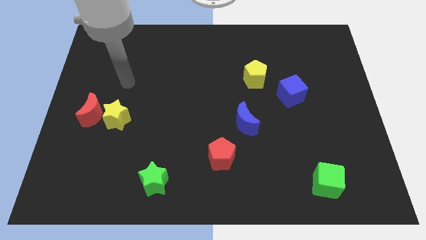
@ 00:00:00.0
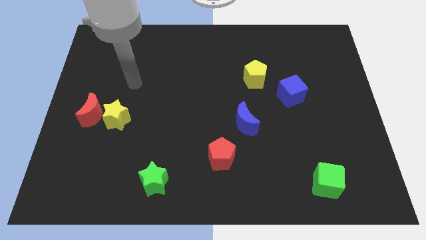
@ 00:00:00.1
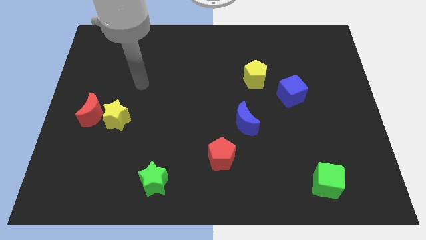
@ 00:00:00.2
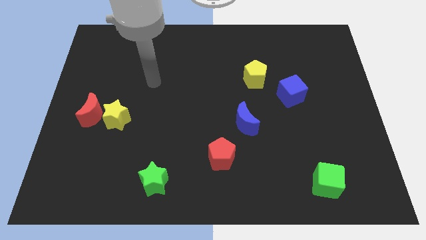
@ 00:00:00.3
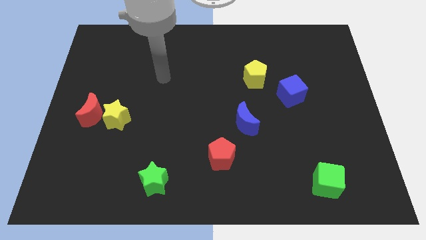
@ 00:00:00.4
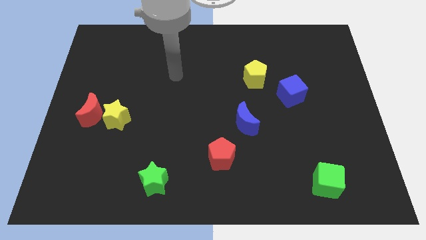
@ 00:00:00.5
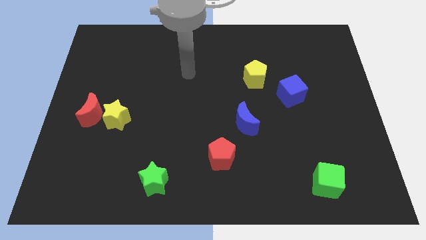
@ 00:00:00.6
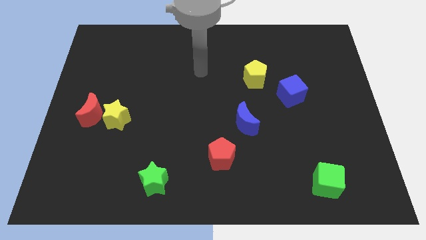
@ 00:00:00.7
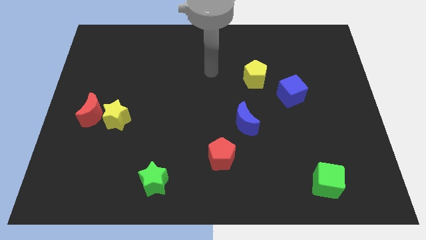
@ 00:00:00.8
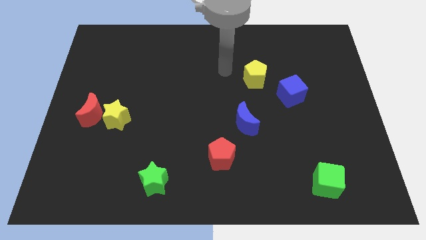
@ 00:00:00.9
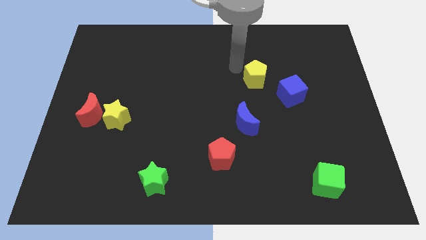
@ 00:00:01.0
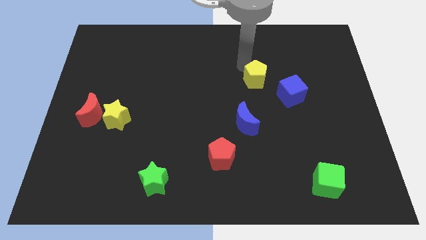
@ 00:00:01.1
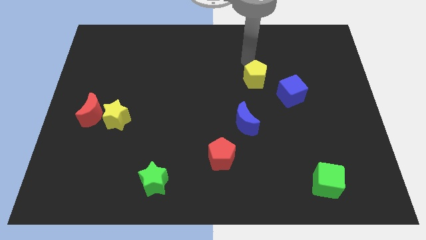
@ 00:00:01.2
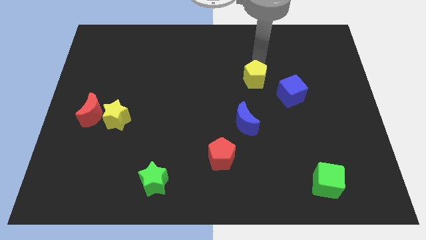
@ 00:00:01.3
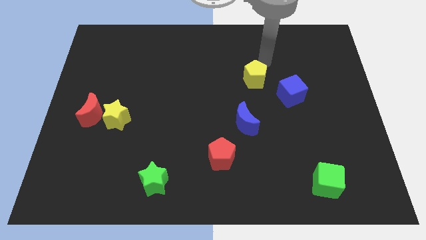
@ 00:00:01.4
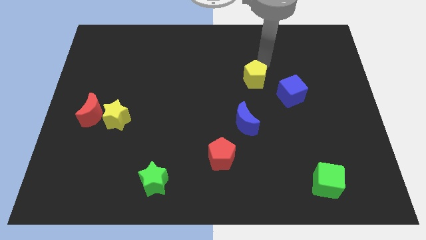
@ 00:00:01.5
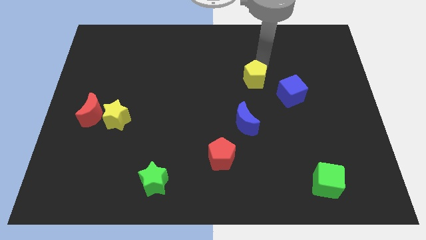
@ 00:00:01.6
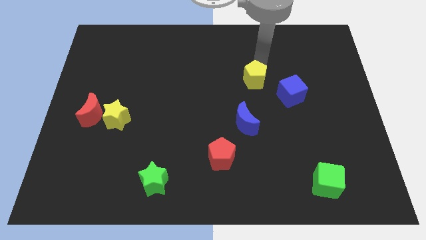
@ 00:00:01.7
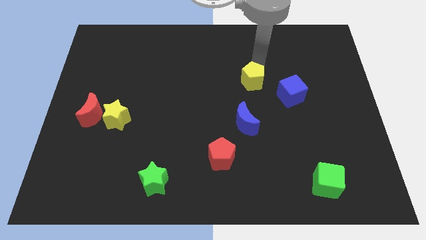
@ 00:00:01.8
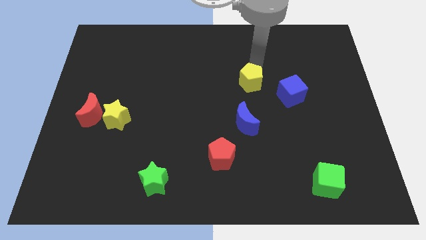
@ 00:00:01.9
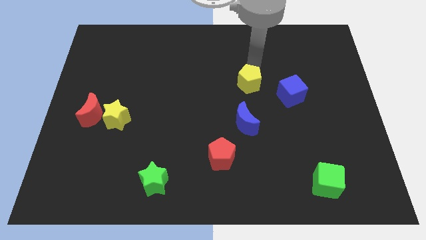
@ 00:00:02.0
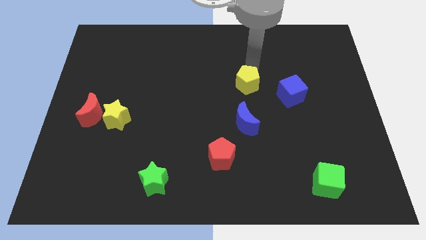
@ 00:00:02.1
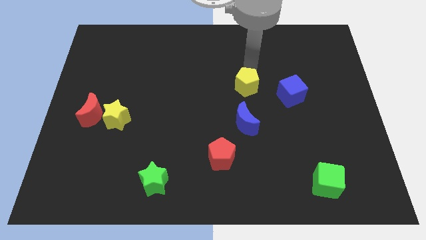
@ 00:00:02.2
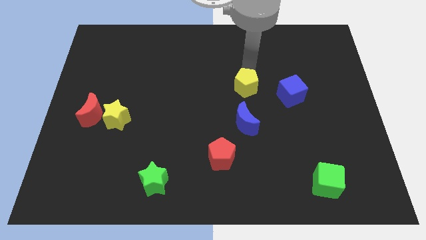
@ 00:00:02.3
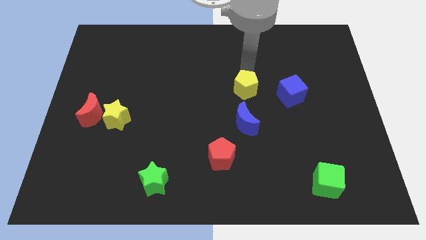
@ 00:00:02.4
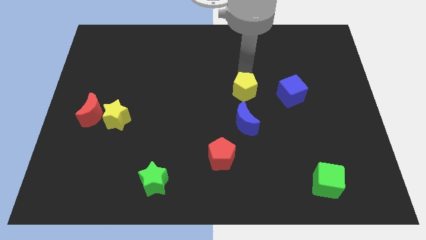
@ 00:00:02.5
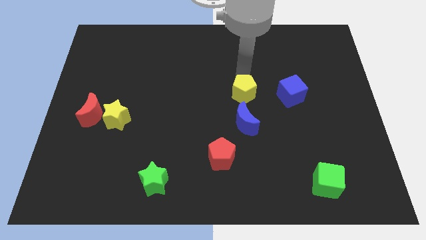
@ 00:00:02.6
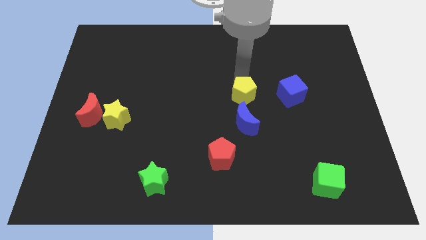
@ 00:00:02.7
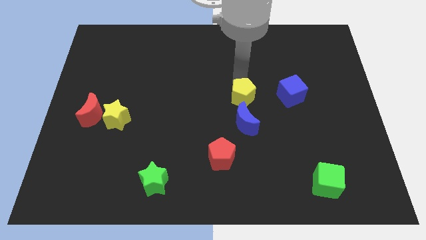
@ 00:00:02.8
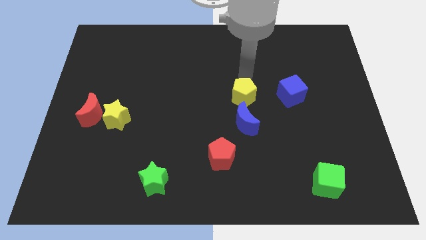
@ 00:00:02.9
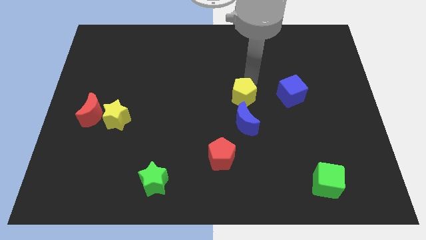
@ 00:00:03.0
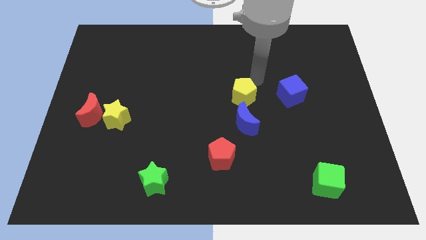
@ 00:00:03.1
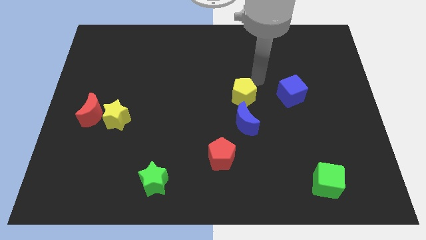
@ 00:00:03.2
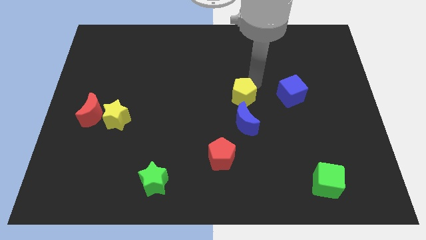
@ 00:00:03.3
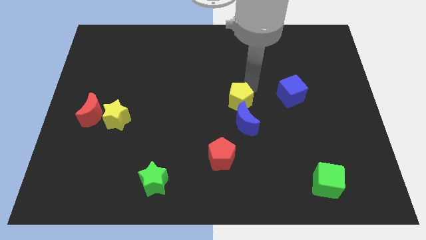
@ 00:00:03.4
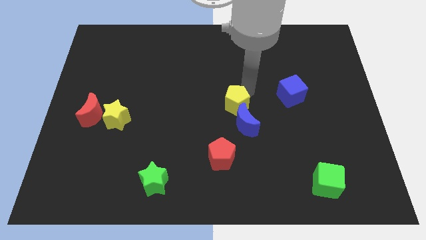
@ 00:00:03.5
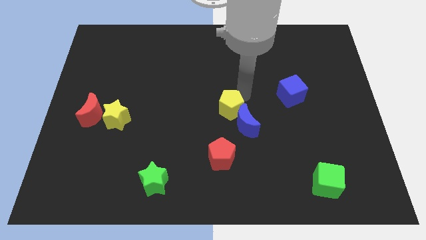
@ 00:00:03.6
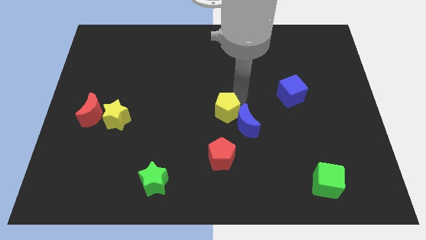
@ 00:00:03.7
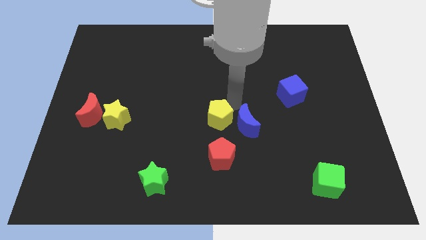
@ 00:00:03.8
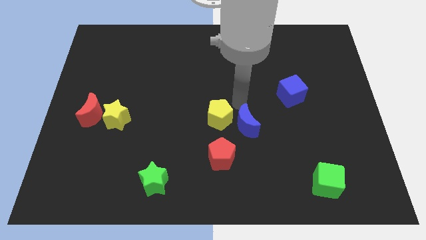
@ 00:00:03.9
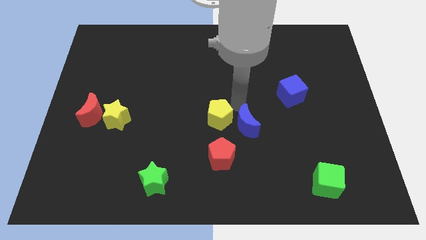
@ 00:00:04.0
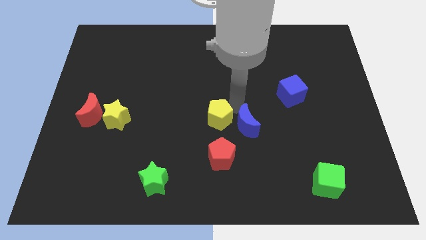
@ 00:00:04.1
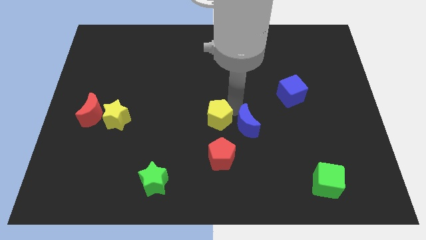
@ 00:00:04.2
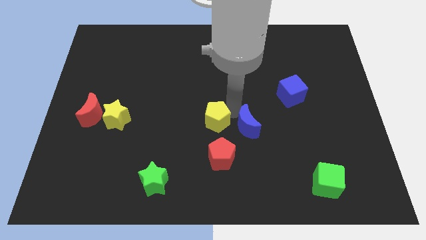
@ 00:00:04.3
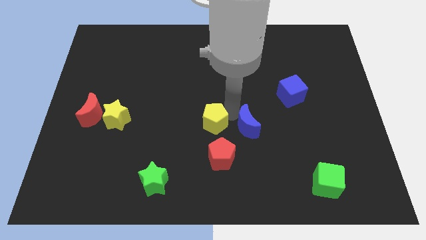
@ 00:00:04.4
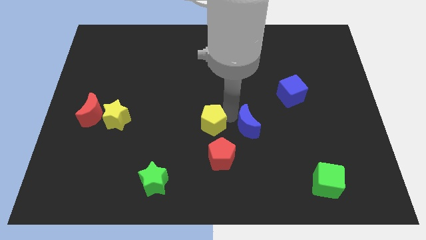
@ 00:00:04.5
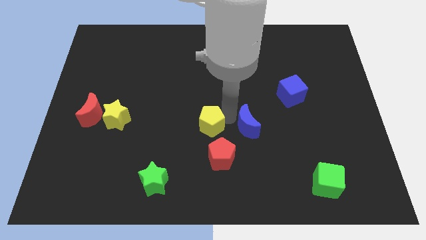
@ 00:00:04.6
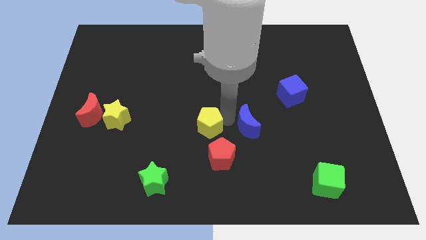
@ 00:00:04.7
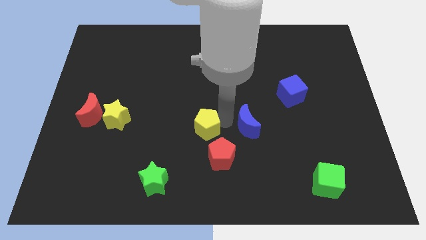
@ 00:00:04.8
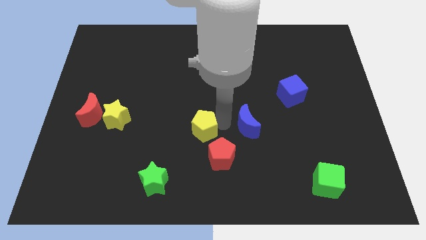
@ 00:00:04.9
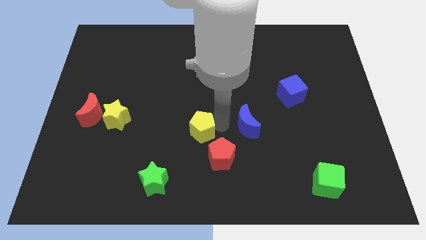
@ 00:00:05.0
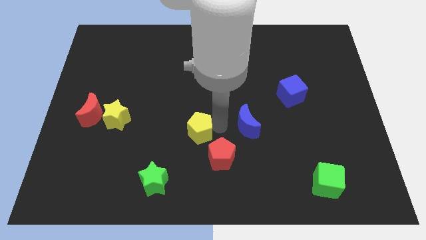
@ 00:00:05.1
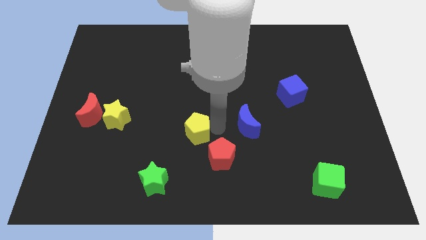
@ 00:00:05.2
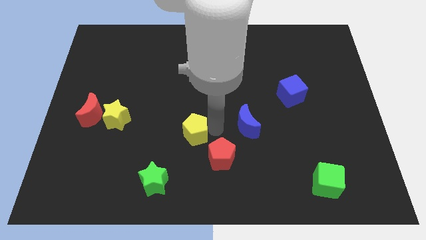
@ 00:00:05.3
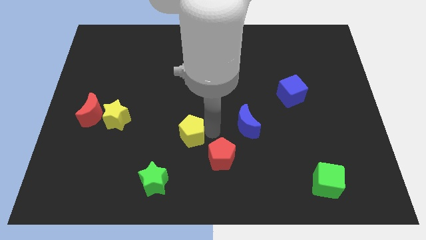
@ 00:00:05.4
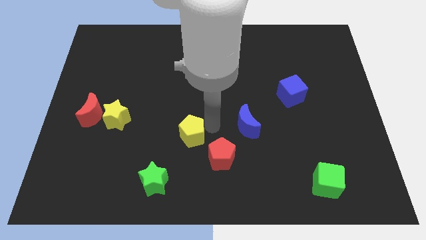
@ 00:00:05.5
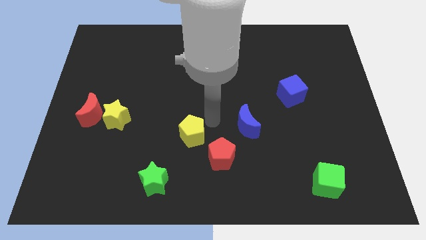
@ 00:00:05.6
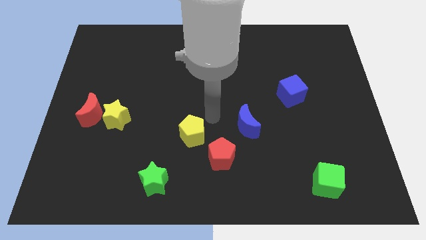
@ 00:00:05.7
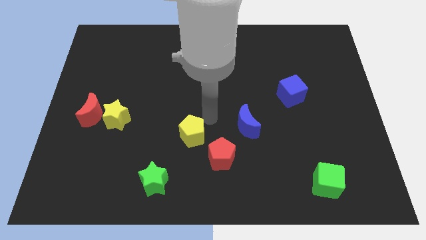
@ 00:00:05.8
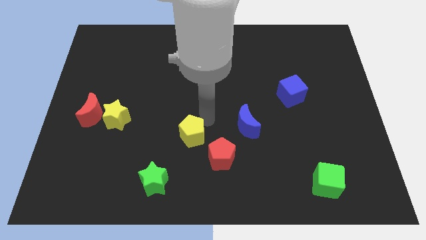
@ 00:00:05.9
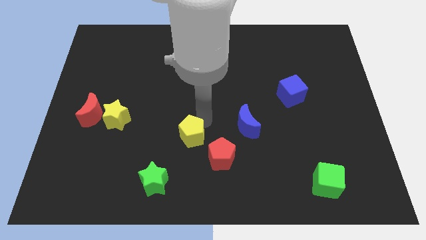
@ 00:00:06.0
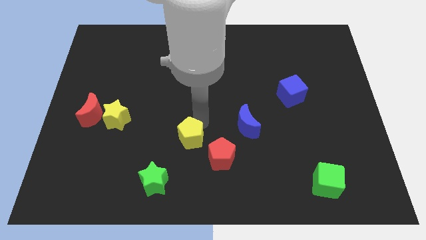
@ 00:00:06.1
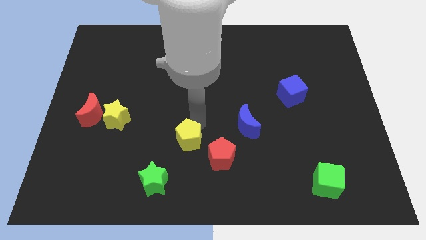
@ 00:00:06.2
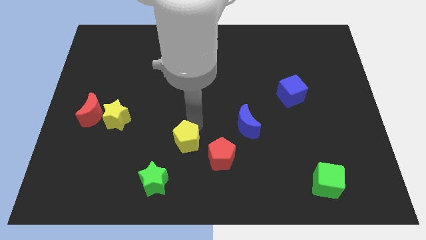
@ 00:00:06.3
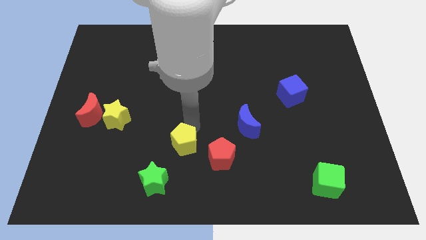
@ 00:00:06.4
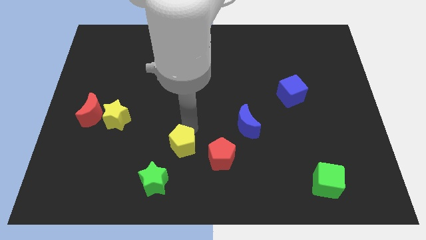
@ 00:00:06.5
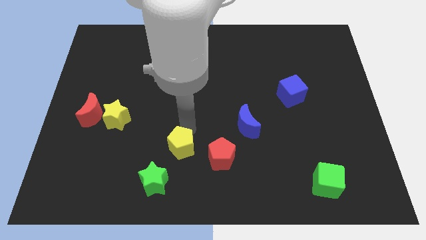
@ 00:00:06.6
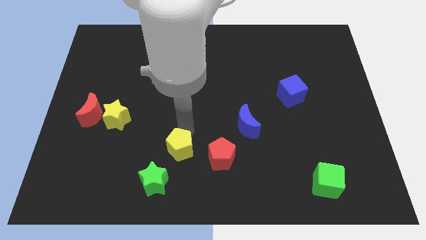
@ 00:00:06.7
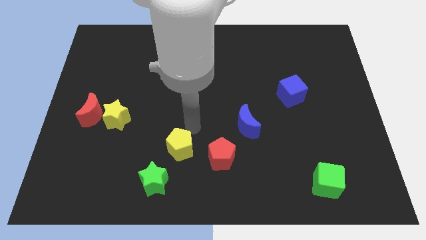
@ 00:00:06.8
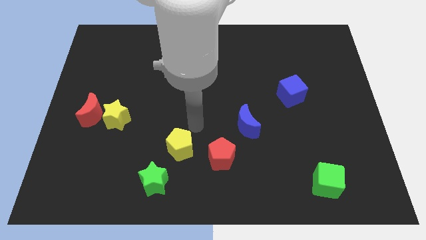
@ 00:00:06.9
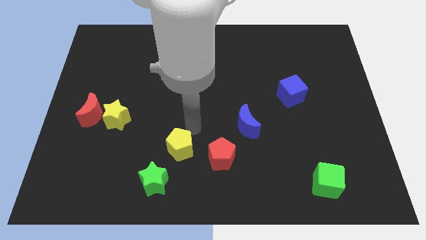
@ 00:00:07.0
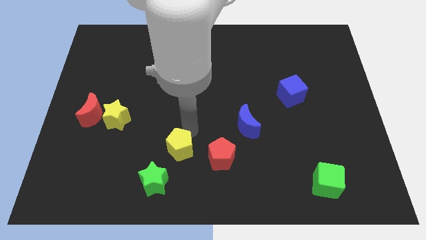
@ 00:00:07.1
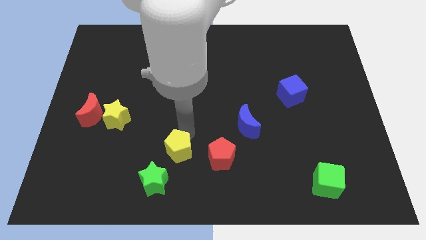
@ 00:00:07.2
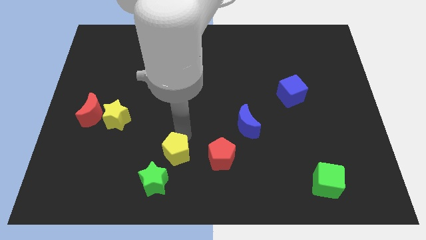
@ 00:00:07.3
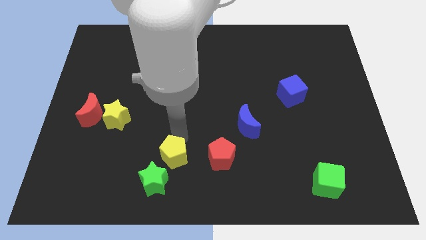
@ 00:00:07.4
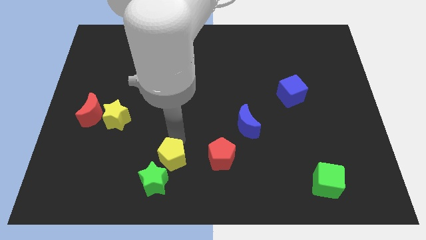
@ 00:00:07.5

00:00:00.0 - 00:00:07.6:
move the yellow pentagon close to the green star

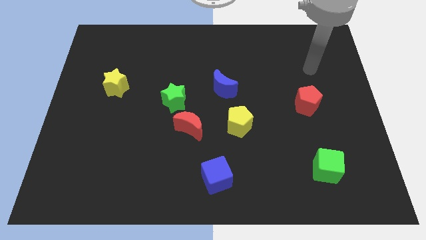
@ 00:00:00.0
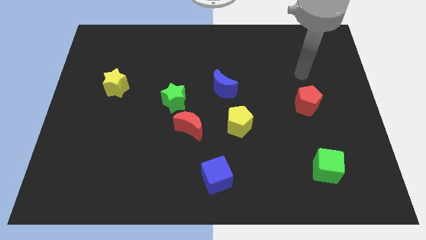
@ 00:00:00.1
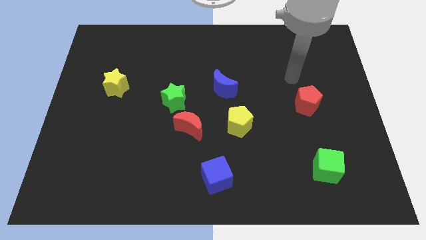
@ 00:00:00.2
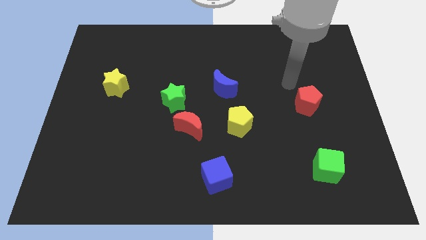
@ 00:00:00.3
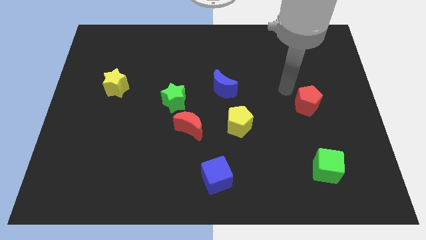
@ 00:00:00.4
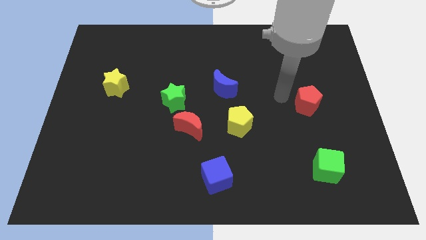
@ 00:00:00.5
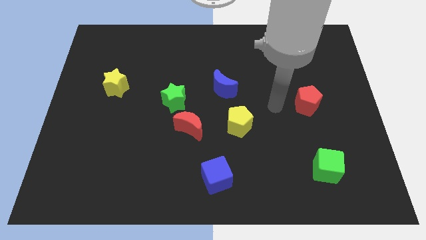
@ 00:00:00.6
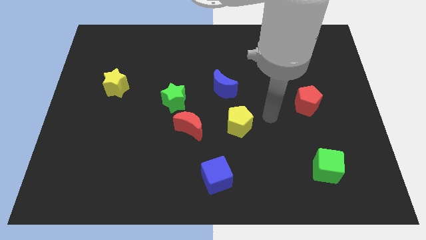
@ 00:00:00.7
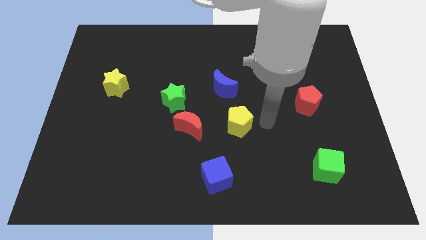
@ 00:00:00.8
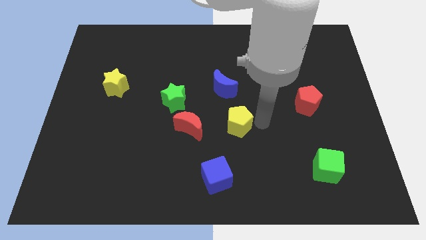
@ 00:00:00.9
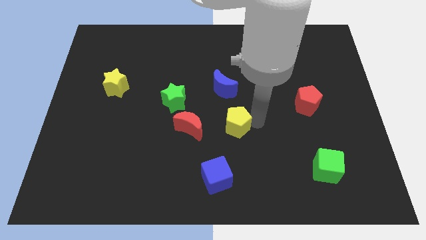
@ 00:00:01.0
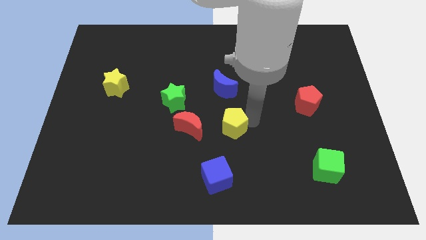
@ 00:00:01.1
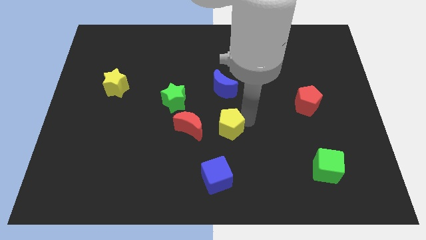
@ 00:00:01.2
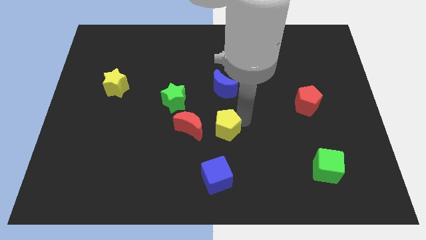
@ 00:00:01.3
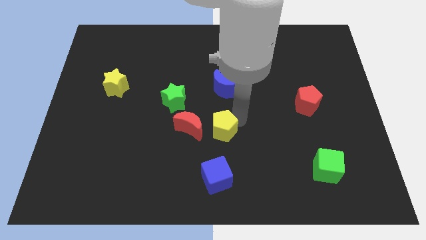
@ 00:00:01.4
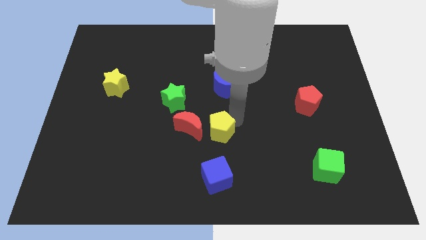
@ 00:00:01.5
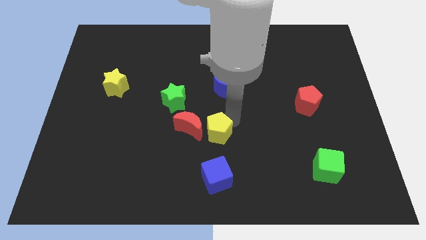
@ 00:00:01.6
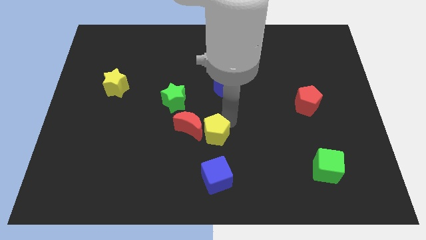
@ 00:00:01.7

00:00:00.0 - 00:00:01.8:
move the yellow pentagon next to the red moon
